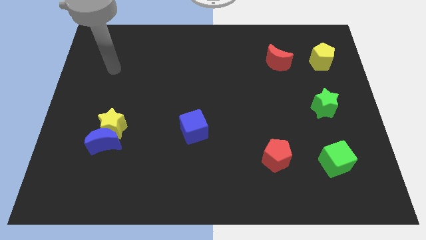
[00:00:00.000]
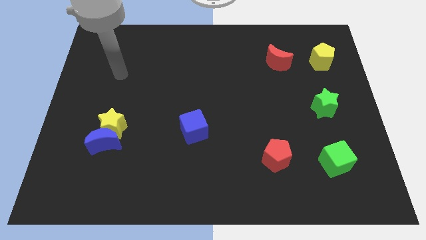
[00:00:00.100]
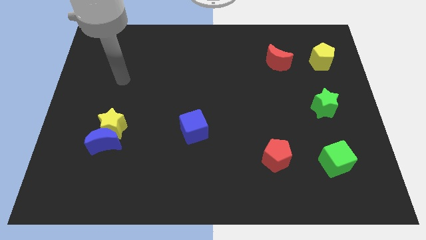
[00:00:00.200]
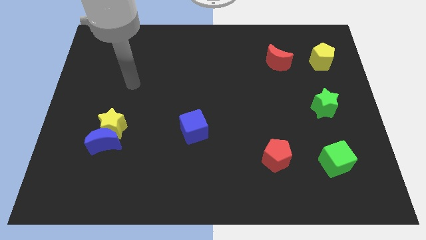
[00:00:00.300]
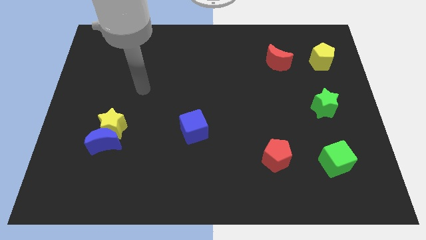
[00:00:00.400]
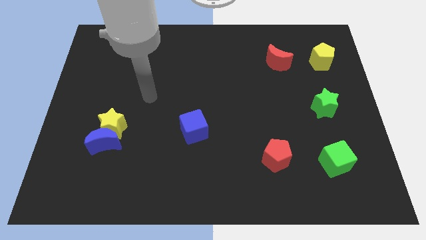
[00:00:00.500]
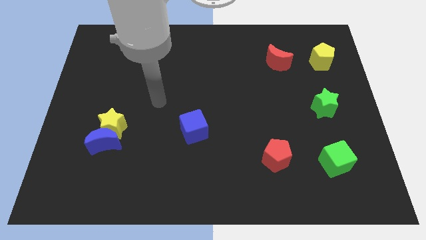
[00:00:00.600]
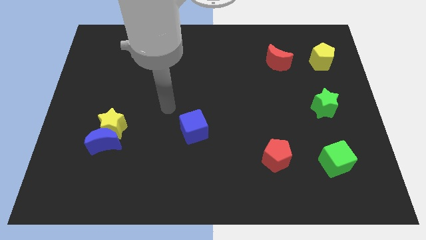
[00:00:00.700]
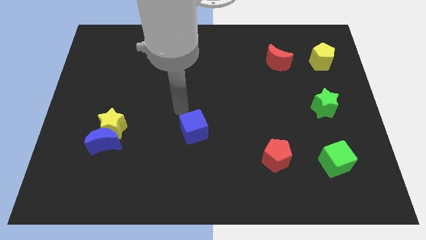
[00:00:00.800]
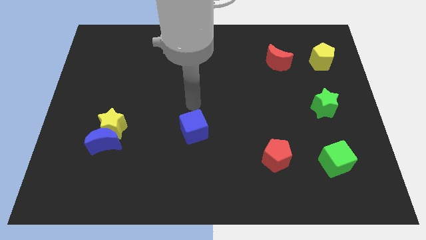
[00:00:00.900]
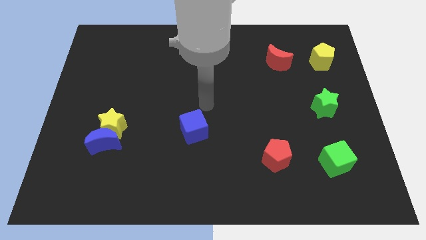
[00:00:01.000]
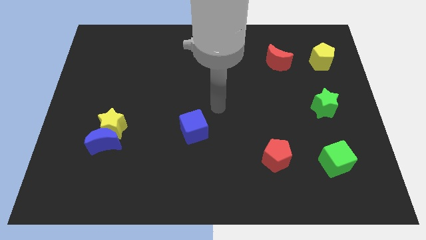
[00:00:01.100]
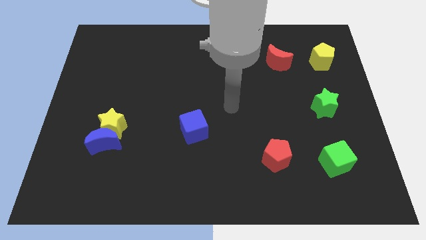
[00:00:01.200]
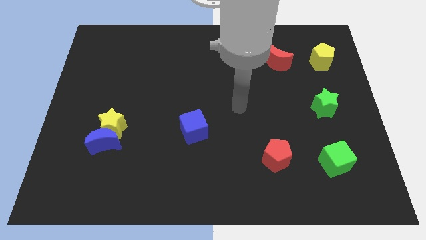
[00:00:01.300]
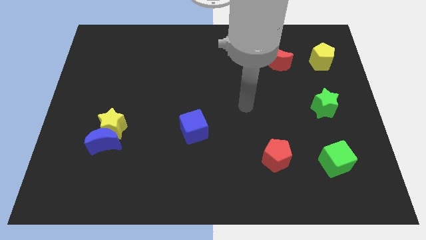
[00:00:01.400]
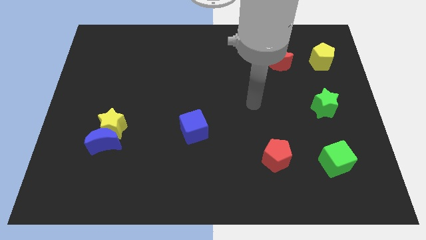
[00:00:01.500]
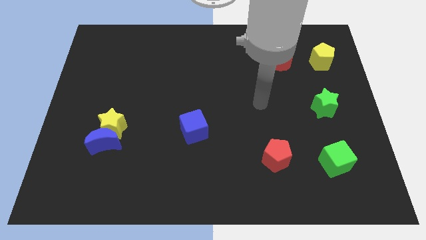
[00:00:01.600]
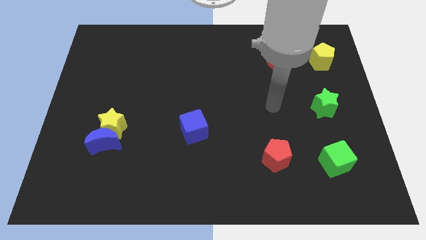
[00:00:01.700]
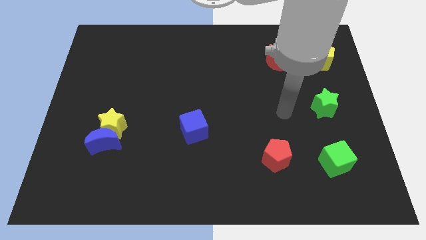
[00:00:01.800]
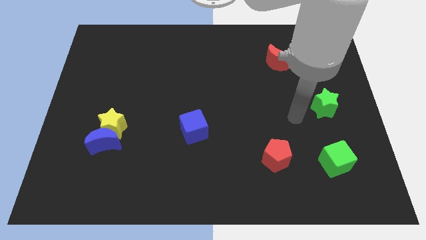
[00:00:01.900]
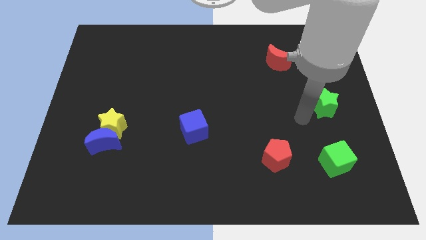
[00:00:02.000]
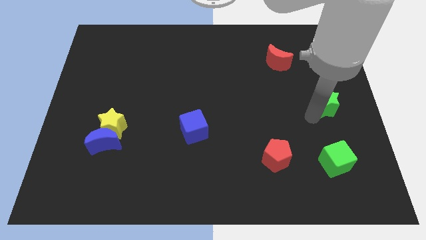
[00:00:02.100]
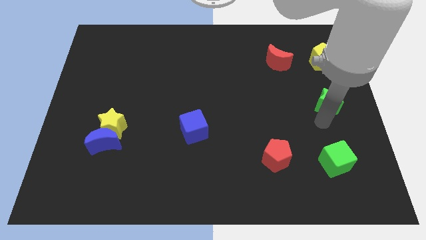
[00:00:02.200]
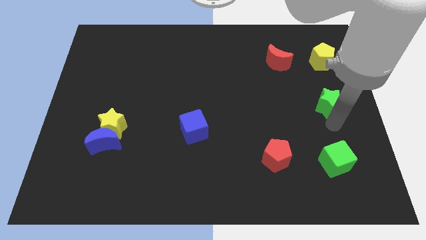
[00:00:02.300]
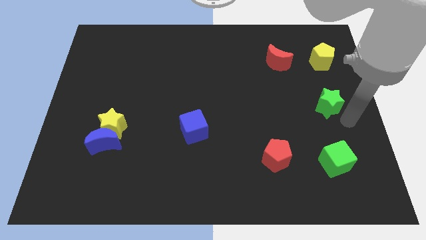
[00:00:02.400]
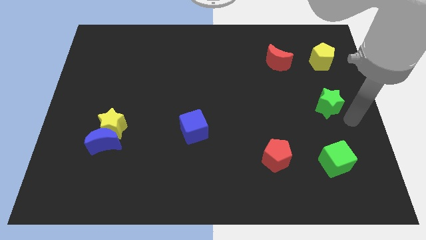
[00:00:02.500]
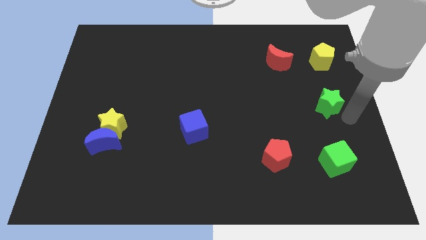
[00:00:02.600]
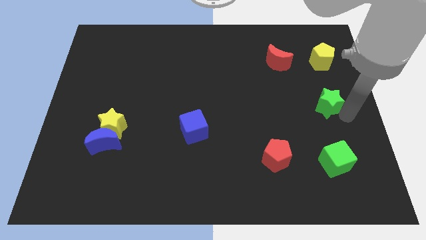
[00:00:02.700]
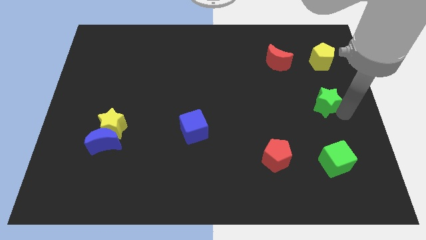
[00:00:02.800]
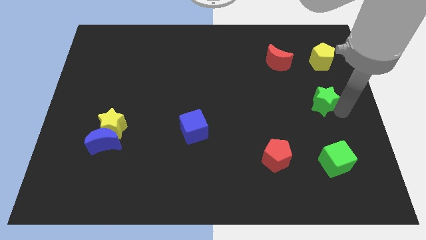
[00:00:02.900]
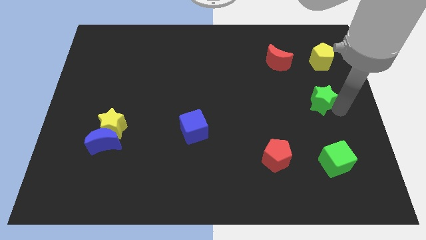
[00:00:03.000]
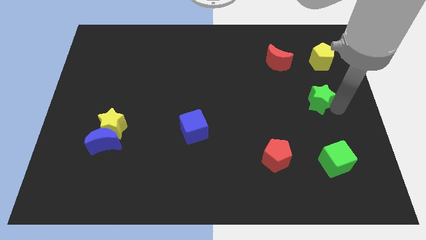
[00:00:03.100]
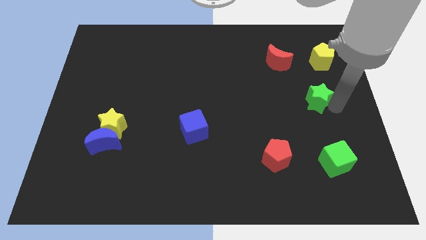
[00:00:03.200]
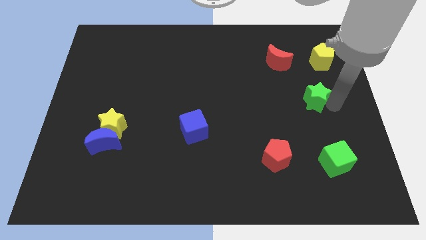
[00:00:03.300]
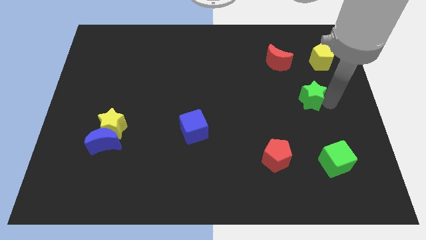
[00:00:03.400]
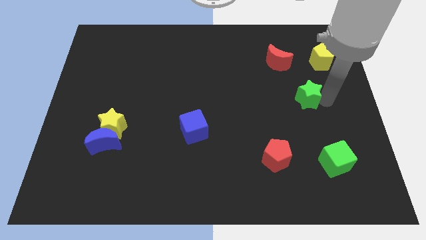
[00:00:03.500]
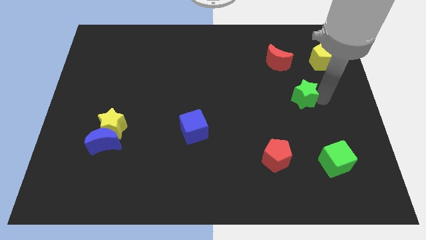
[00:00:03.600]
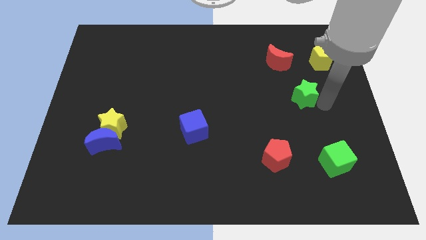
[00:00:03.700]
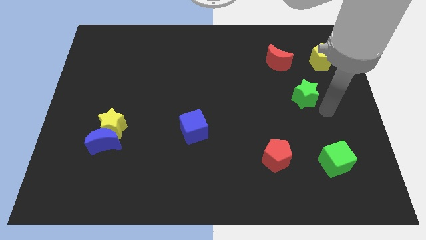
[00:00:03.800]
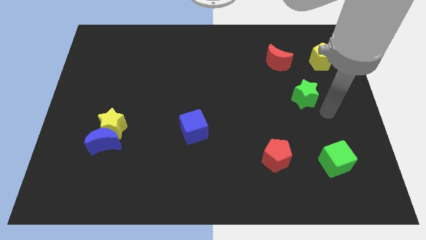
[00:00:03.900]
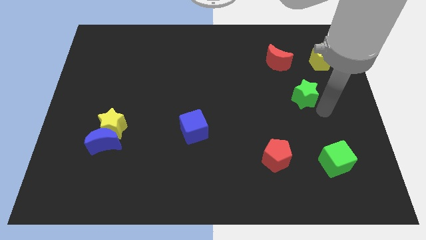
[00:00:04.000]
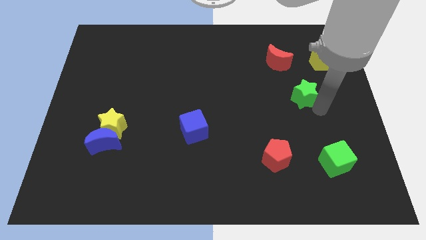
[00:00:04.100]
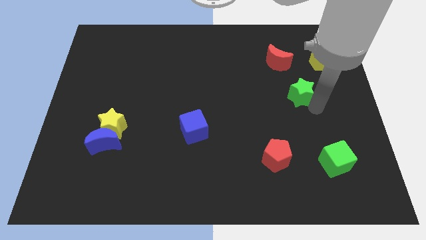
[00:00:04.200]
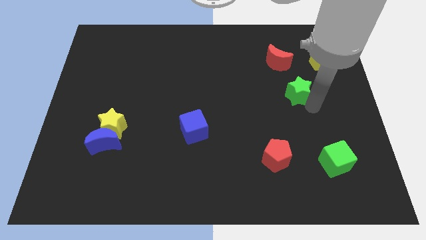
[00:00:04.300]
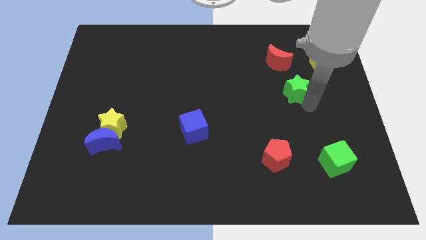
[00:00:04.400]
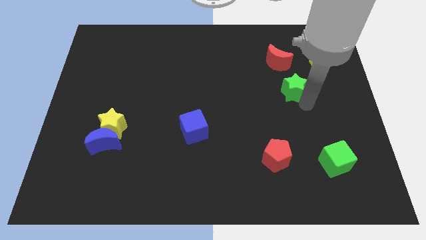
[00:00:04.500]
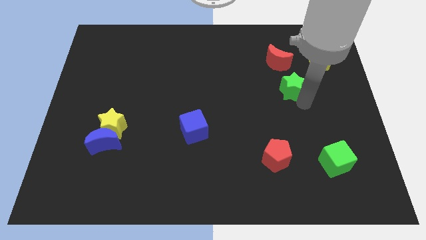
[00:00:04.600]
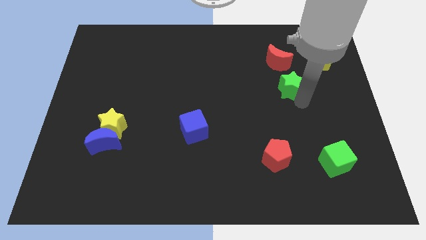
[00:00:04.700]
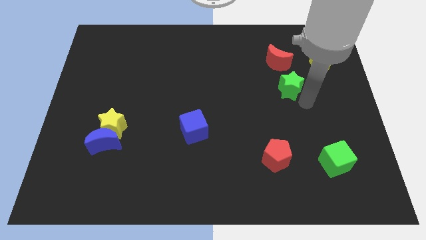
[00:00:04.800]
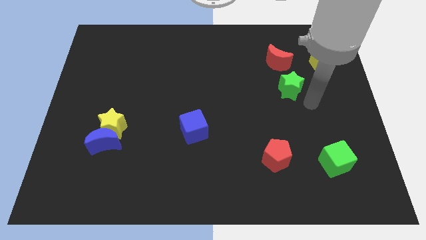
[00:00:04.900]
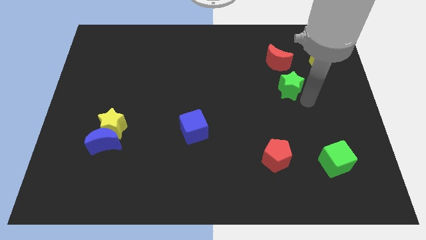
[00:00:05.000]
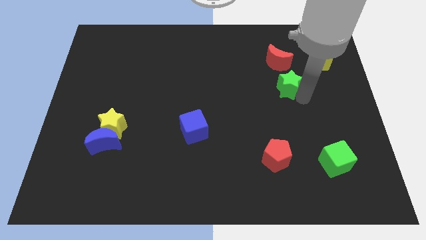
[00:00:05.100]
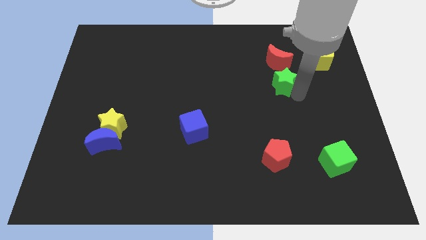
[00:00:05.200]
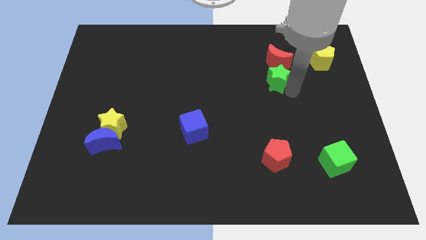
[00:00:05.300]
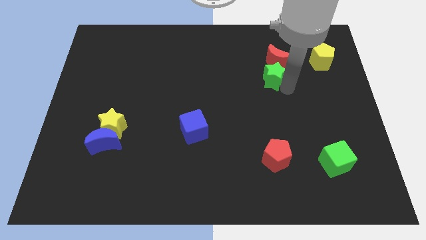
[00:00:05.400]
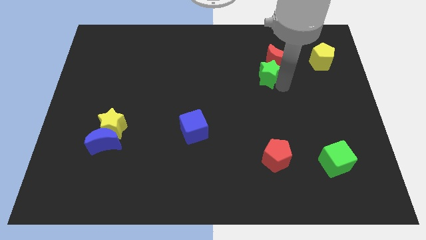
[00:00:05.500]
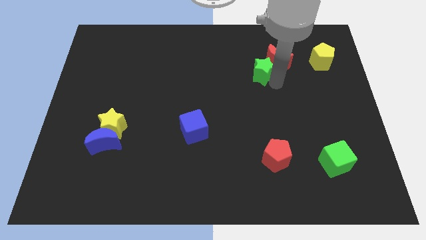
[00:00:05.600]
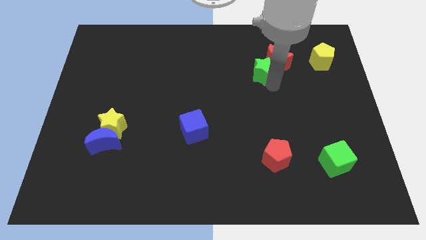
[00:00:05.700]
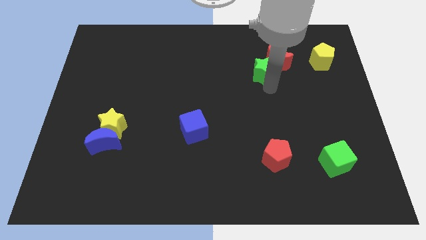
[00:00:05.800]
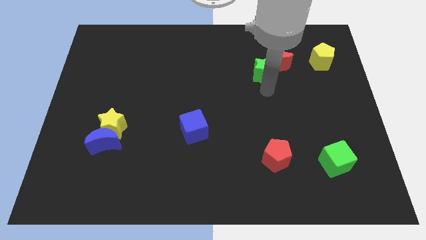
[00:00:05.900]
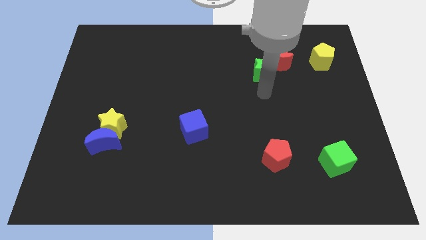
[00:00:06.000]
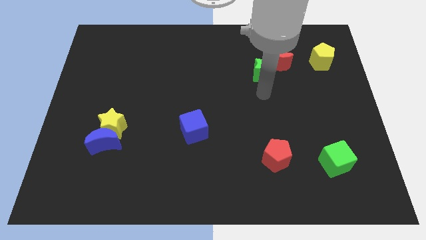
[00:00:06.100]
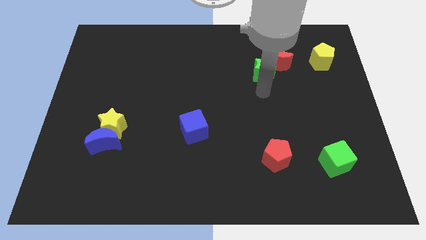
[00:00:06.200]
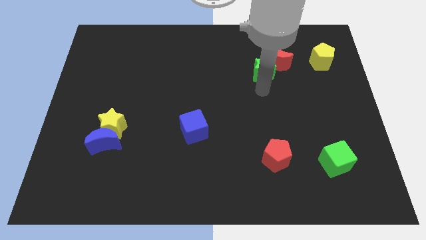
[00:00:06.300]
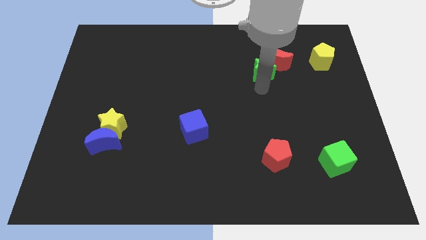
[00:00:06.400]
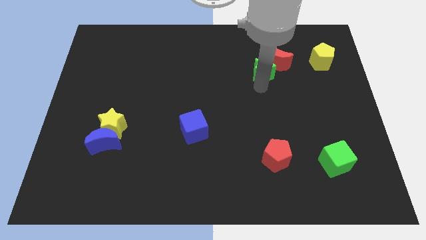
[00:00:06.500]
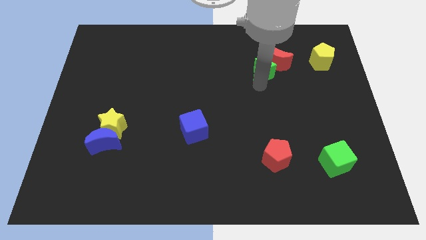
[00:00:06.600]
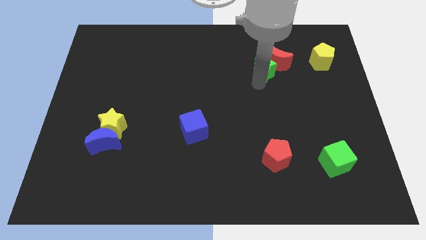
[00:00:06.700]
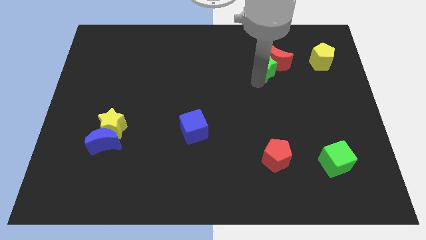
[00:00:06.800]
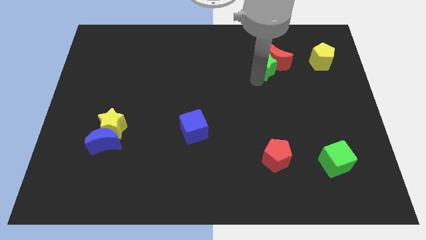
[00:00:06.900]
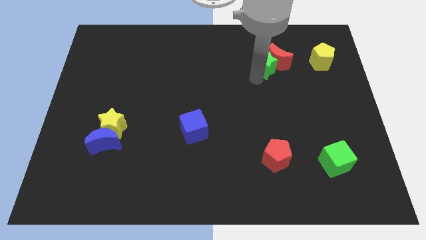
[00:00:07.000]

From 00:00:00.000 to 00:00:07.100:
push the green star just left of the yellow pentagon
